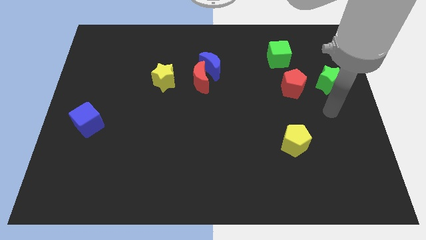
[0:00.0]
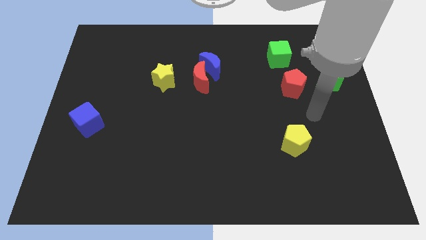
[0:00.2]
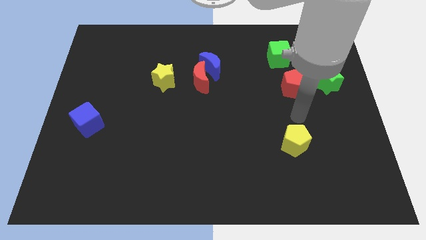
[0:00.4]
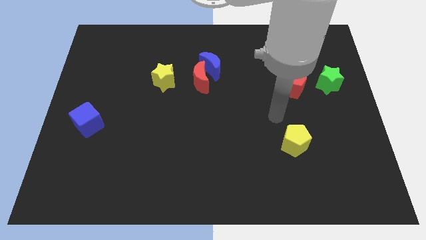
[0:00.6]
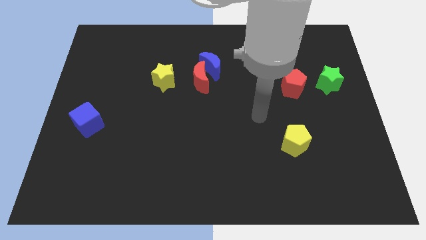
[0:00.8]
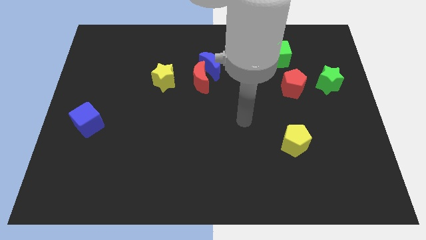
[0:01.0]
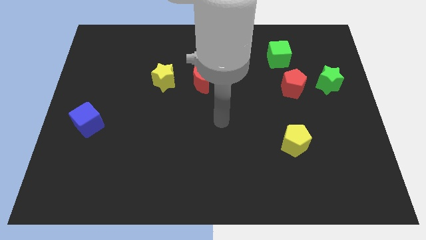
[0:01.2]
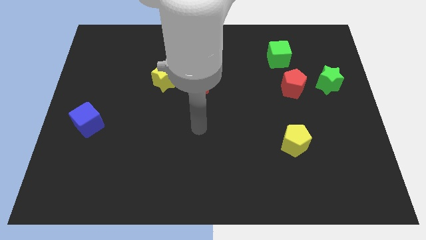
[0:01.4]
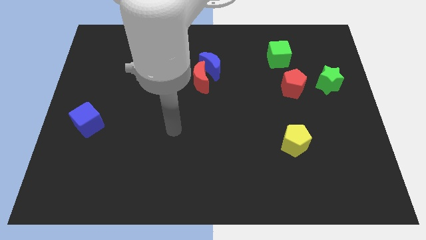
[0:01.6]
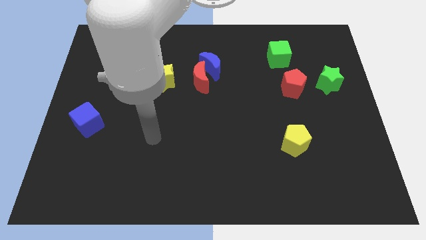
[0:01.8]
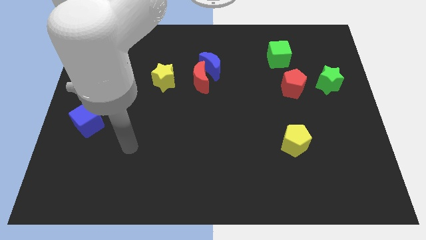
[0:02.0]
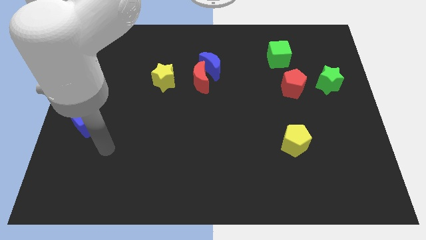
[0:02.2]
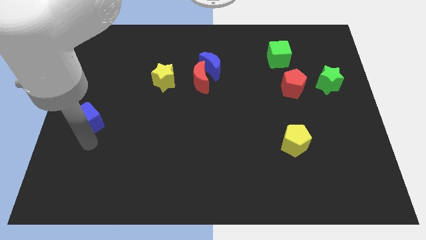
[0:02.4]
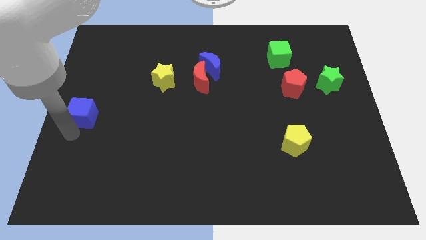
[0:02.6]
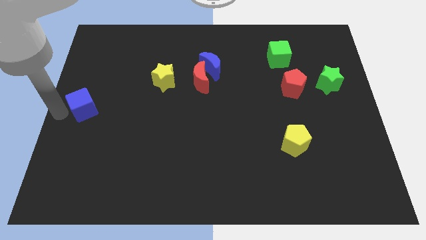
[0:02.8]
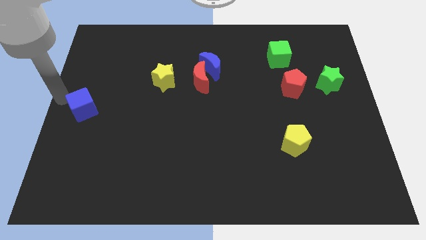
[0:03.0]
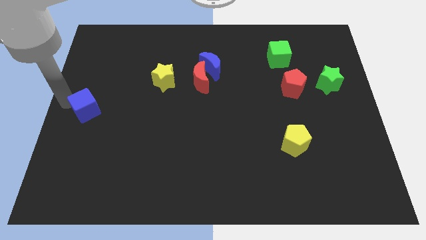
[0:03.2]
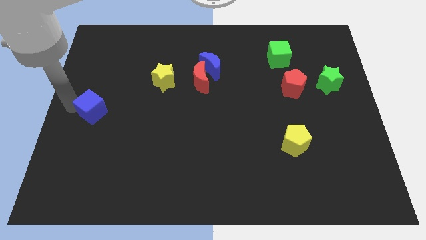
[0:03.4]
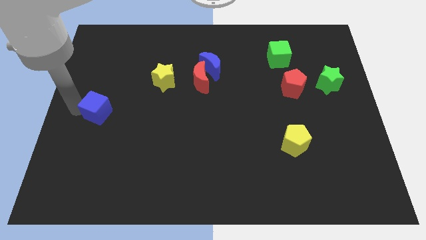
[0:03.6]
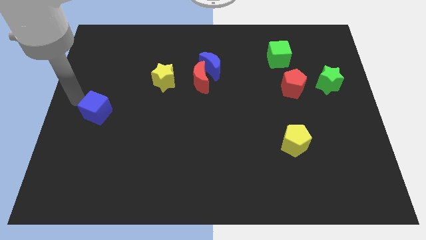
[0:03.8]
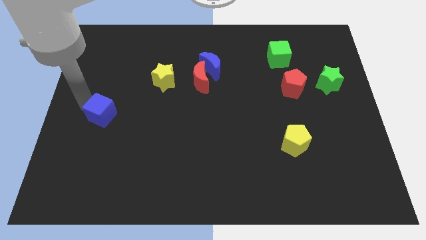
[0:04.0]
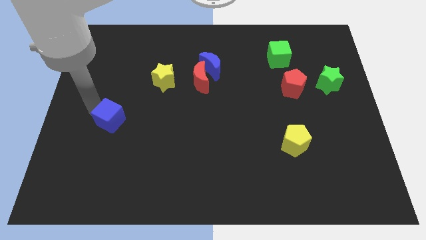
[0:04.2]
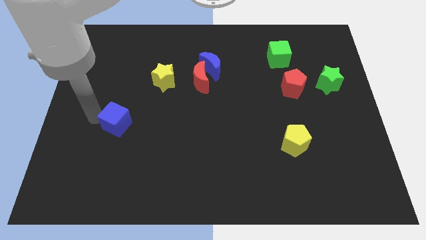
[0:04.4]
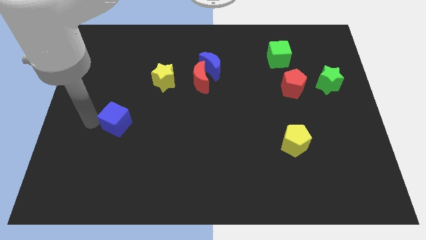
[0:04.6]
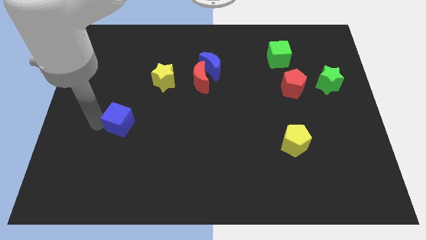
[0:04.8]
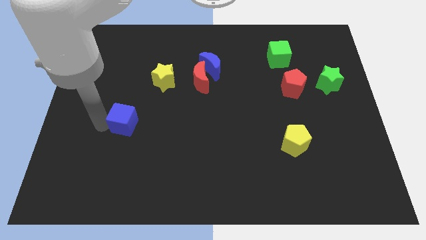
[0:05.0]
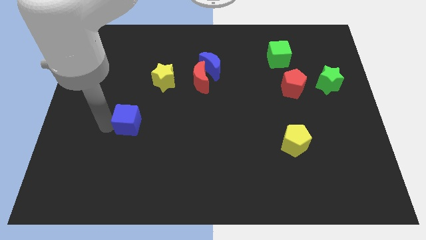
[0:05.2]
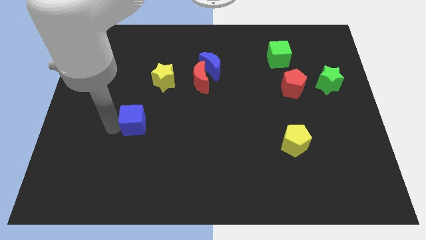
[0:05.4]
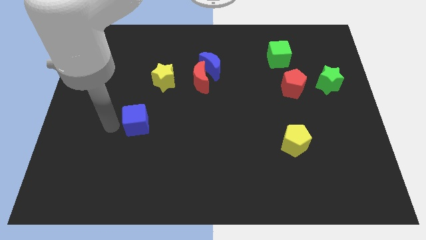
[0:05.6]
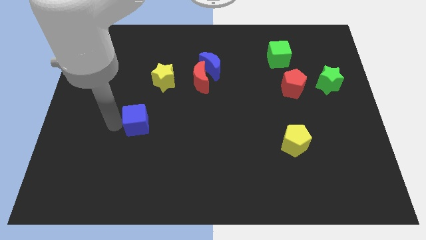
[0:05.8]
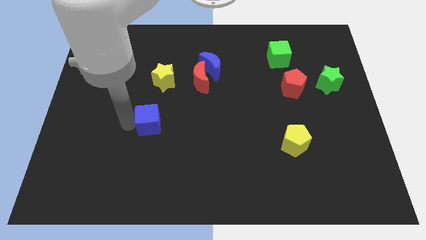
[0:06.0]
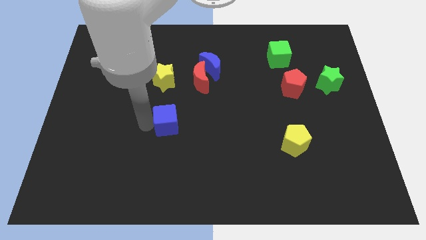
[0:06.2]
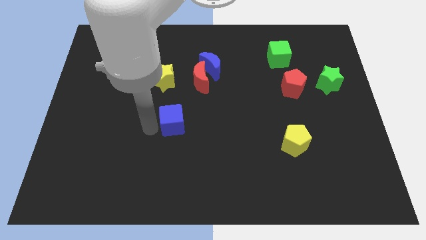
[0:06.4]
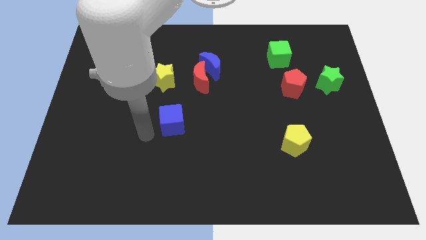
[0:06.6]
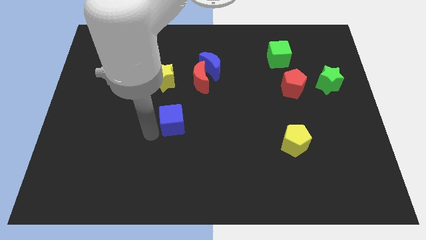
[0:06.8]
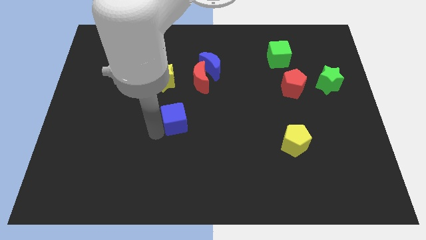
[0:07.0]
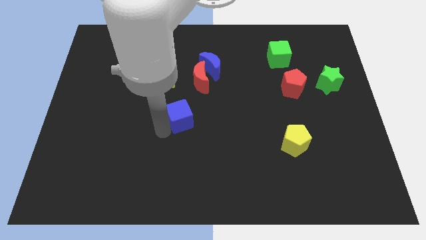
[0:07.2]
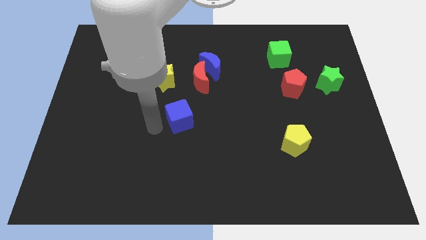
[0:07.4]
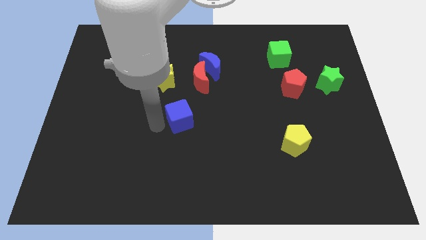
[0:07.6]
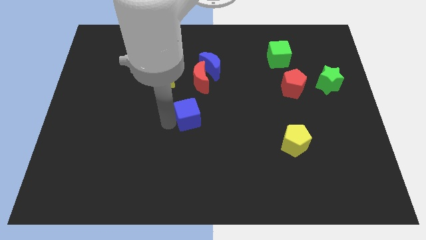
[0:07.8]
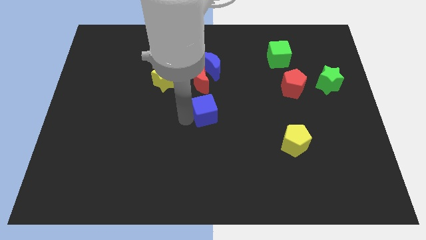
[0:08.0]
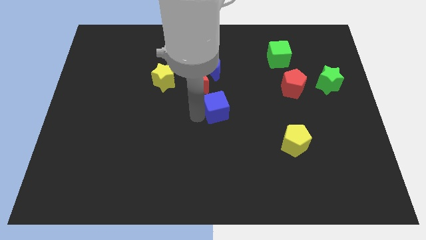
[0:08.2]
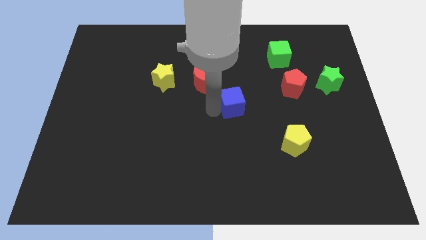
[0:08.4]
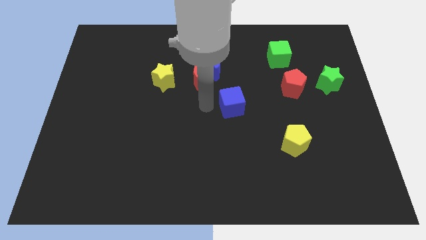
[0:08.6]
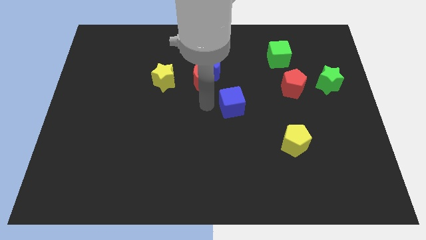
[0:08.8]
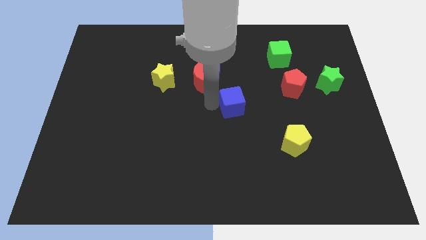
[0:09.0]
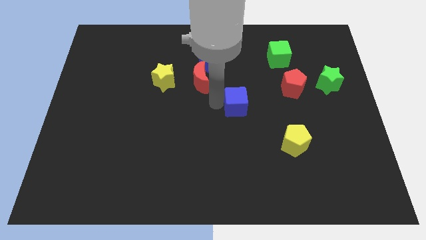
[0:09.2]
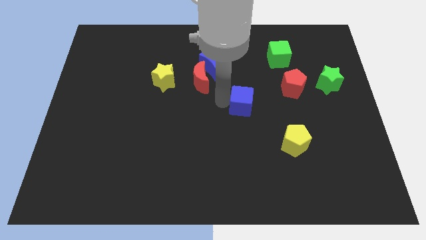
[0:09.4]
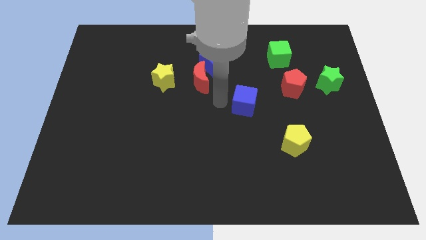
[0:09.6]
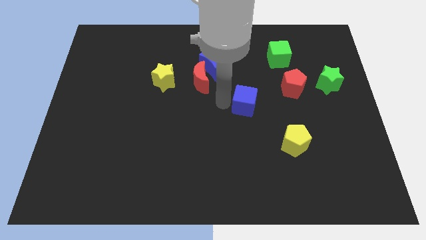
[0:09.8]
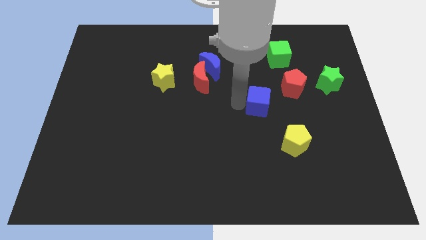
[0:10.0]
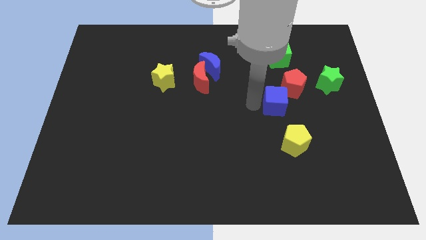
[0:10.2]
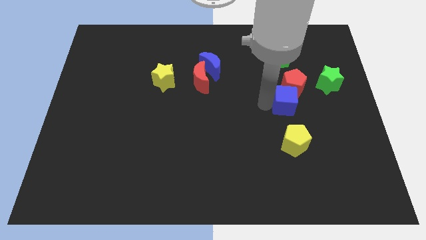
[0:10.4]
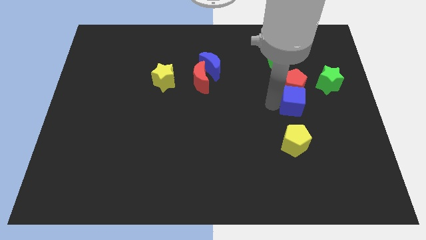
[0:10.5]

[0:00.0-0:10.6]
push the blue cube to the bottom right side of the red pentagon

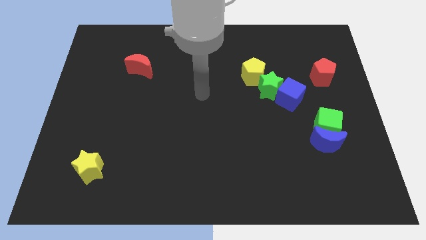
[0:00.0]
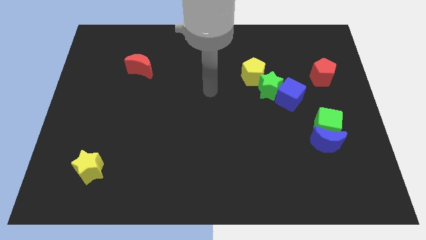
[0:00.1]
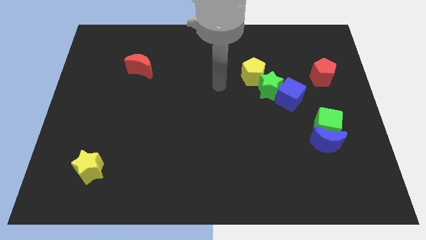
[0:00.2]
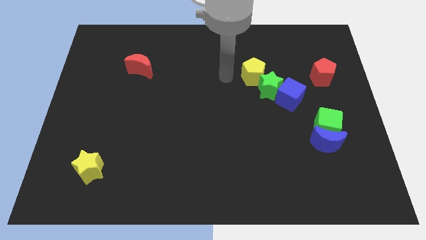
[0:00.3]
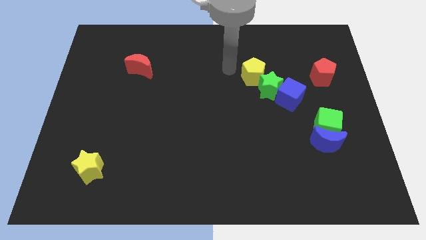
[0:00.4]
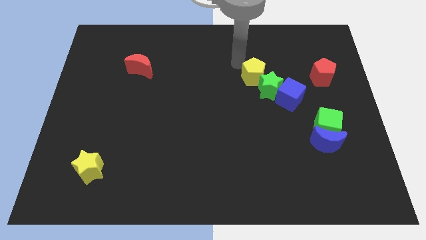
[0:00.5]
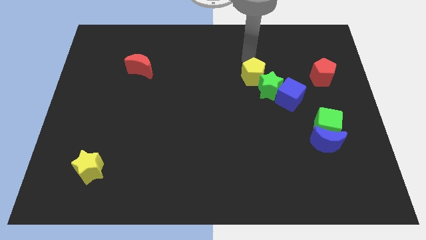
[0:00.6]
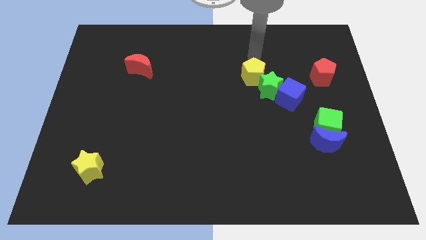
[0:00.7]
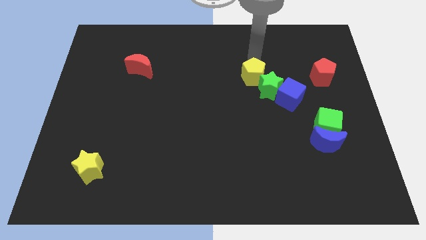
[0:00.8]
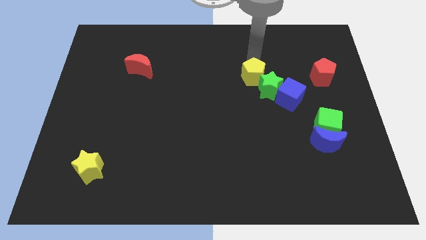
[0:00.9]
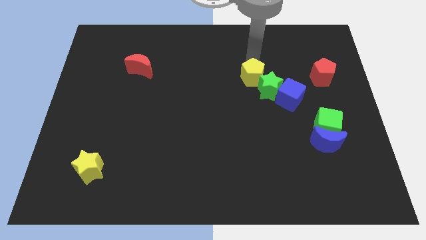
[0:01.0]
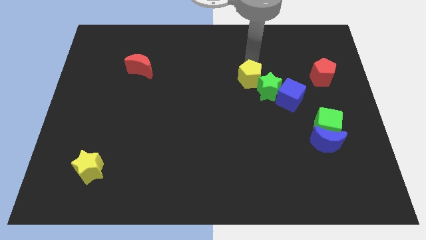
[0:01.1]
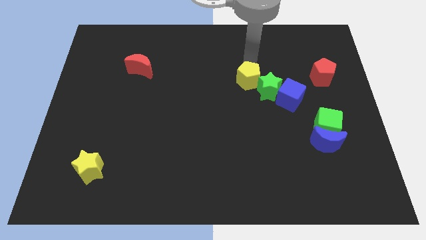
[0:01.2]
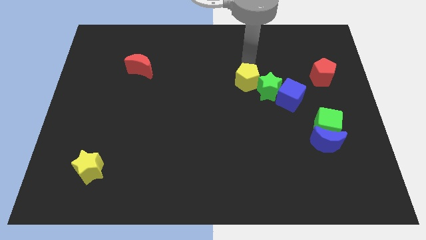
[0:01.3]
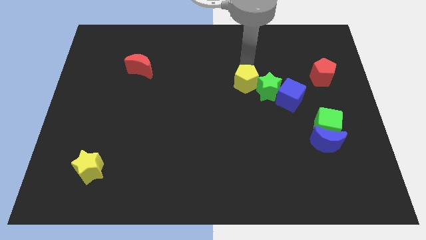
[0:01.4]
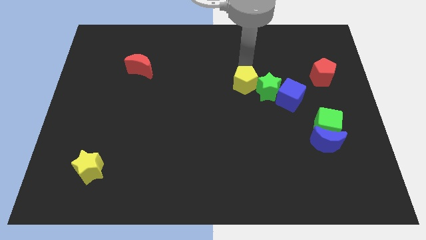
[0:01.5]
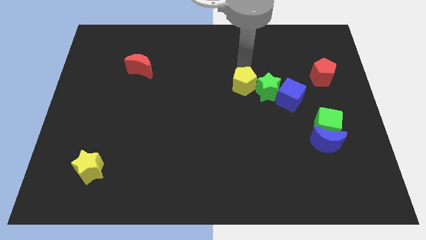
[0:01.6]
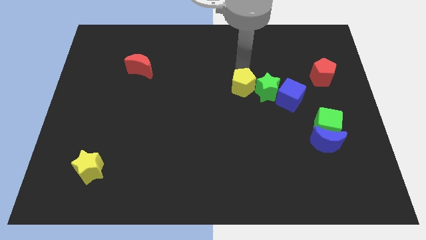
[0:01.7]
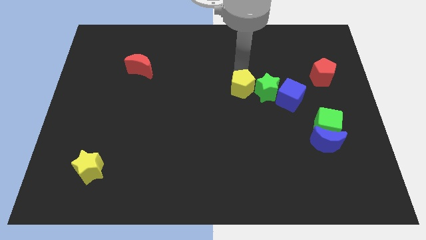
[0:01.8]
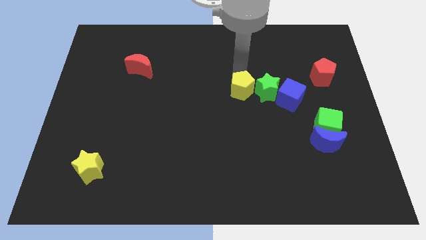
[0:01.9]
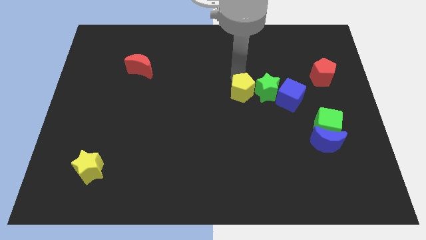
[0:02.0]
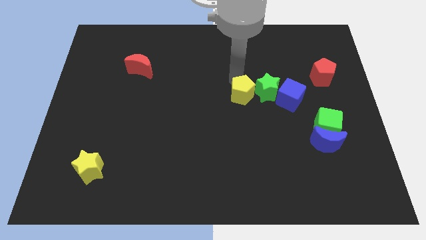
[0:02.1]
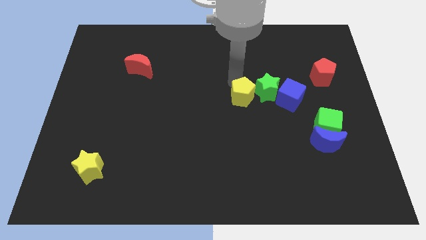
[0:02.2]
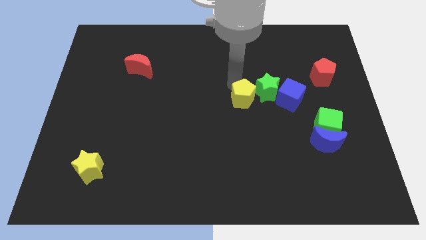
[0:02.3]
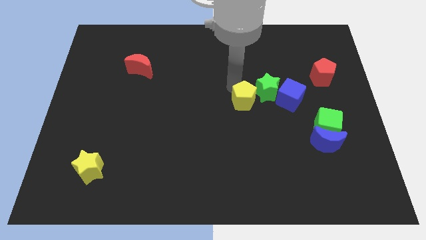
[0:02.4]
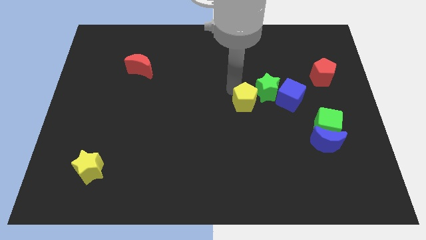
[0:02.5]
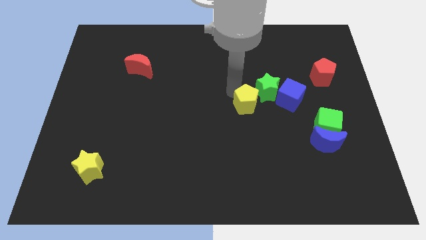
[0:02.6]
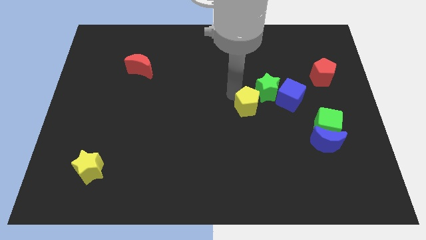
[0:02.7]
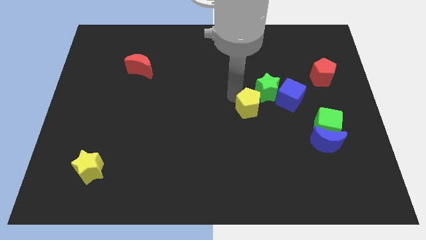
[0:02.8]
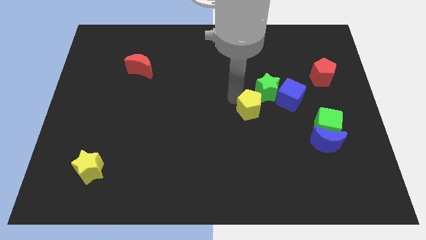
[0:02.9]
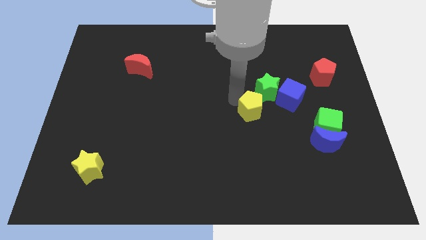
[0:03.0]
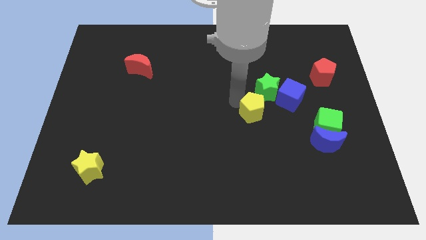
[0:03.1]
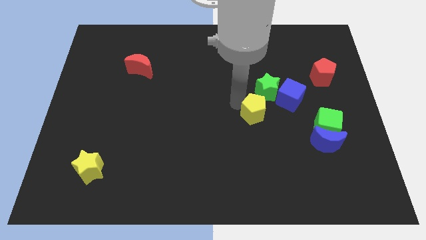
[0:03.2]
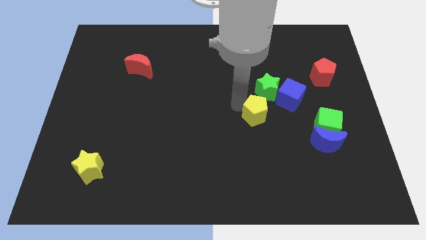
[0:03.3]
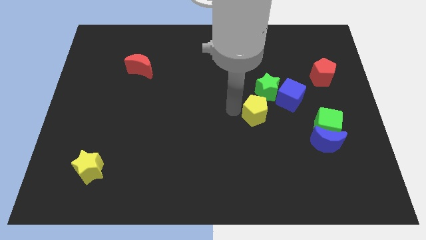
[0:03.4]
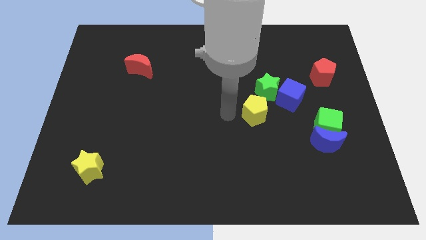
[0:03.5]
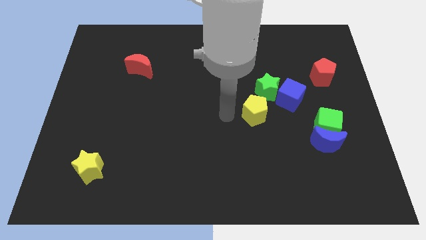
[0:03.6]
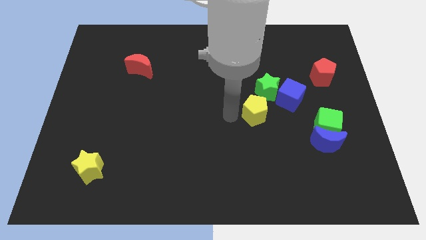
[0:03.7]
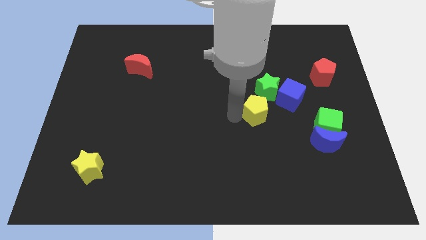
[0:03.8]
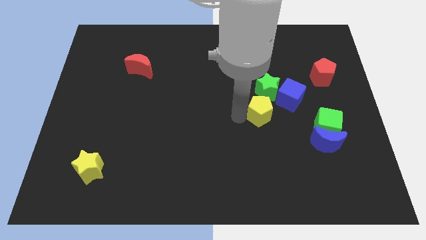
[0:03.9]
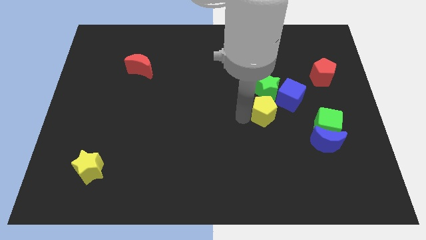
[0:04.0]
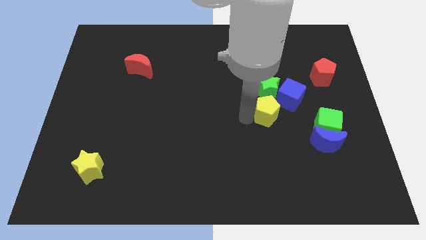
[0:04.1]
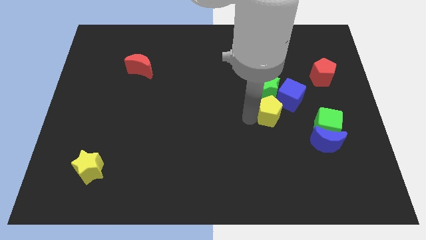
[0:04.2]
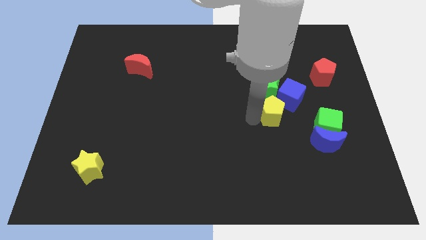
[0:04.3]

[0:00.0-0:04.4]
slide the yellow pentagon to the bottom right side of the green star
